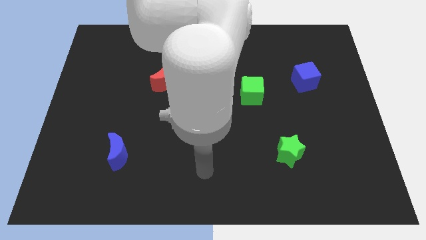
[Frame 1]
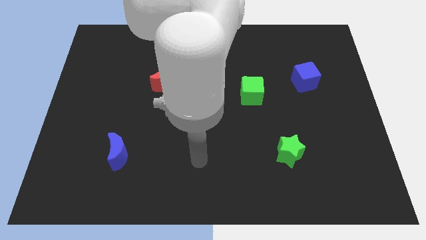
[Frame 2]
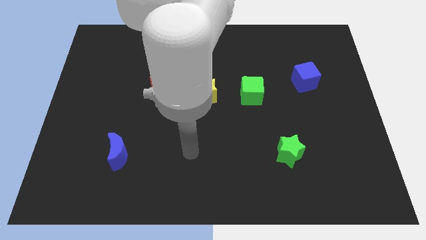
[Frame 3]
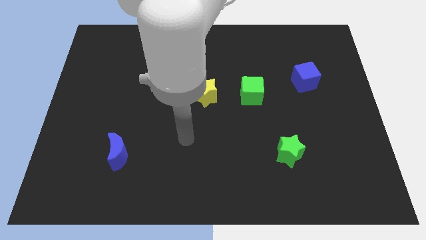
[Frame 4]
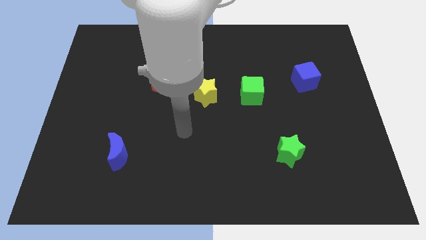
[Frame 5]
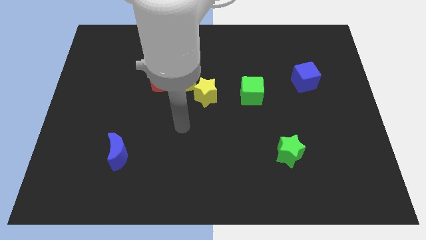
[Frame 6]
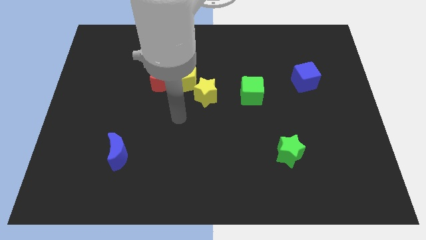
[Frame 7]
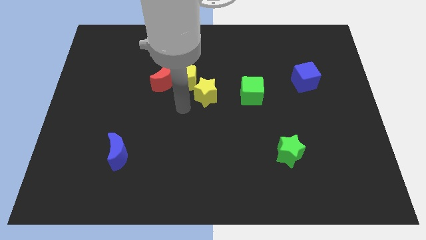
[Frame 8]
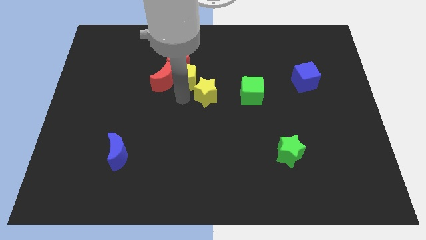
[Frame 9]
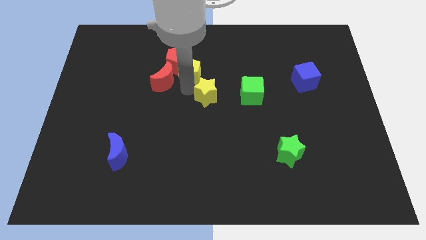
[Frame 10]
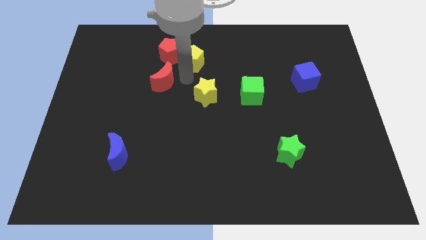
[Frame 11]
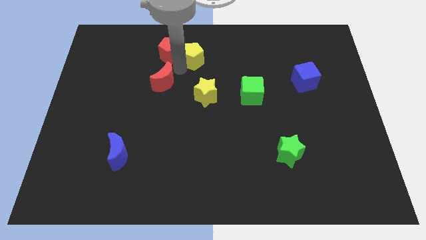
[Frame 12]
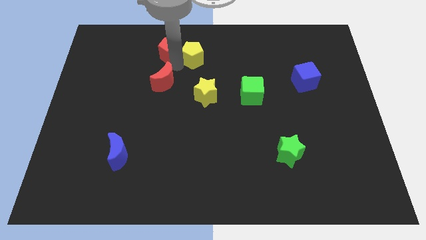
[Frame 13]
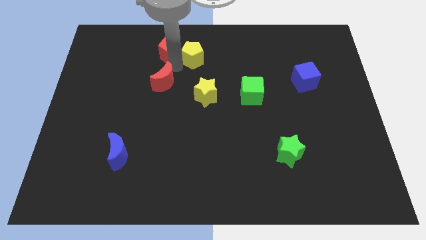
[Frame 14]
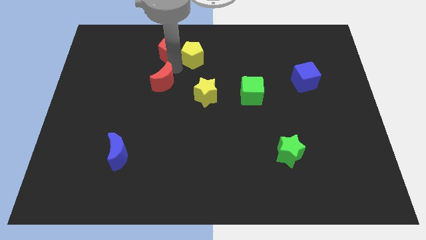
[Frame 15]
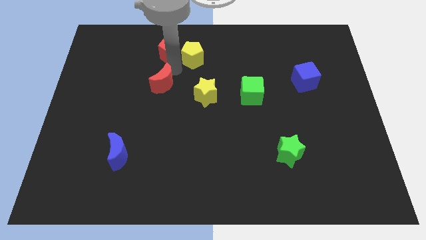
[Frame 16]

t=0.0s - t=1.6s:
pull the red moon apart from the yellow pentagon and red pentagon

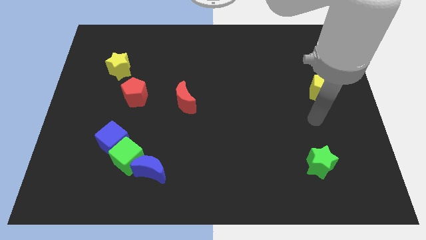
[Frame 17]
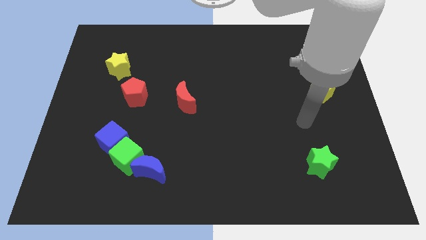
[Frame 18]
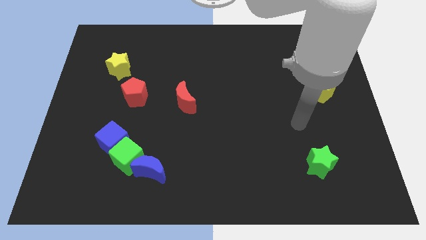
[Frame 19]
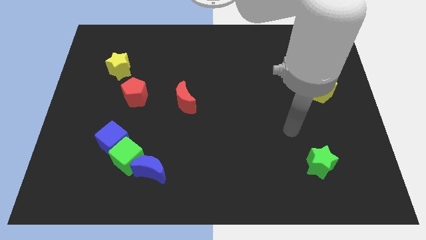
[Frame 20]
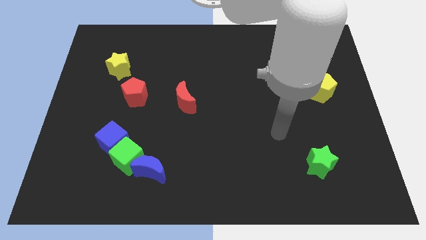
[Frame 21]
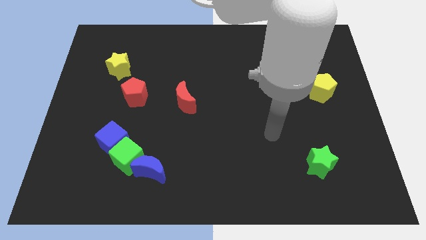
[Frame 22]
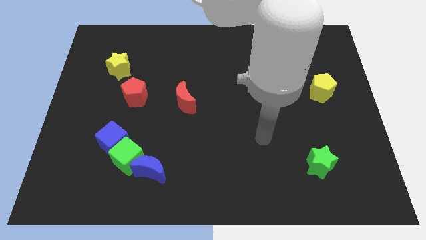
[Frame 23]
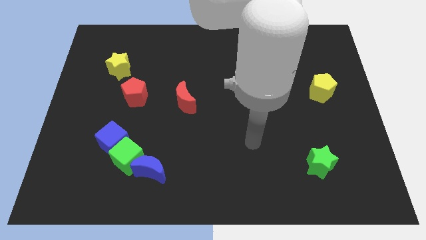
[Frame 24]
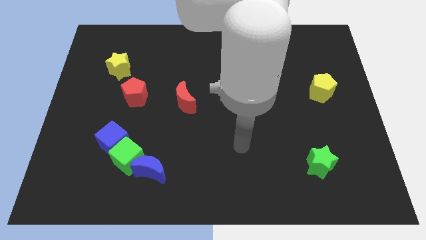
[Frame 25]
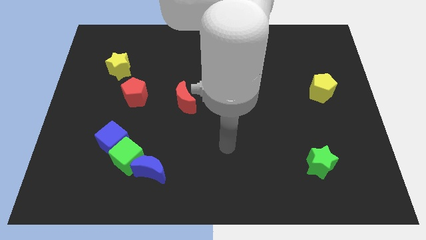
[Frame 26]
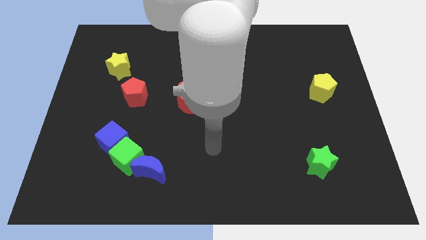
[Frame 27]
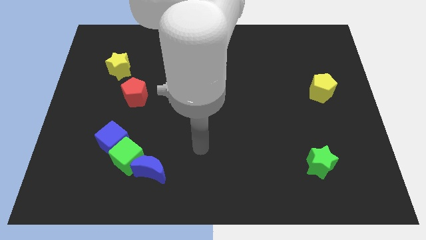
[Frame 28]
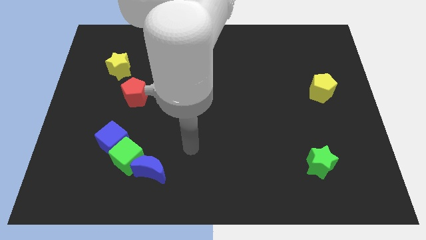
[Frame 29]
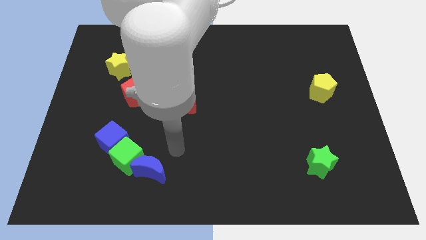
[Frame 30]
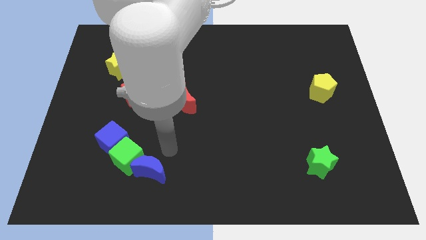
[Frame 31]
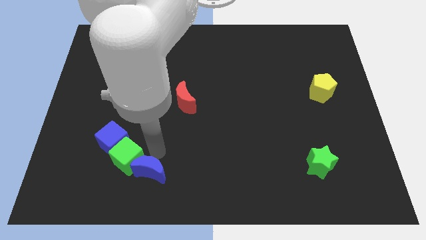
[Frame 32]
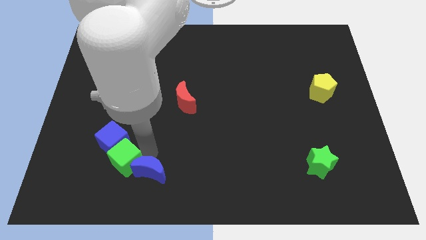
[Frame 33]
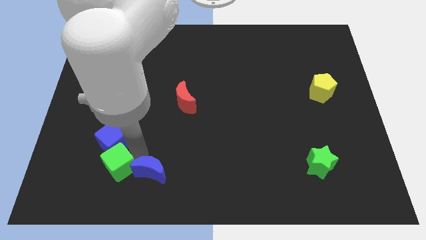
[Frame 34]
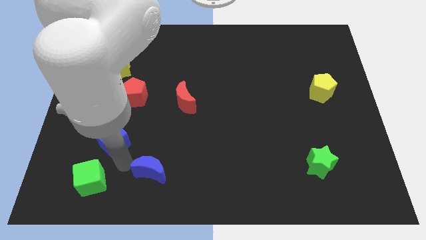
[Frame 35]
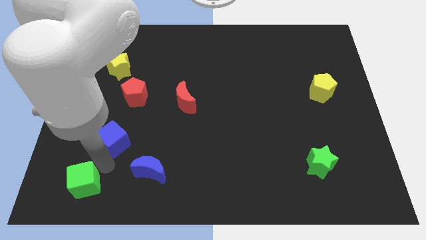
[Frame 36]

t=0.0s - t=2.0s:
separate the blue cube from the green cube

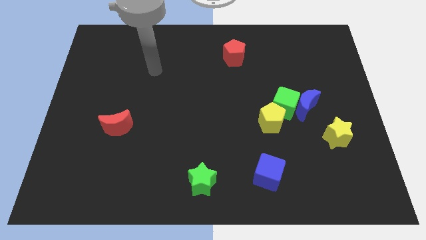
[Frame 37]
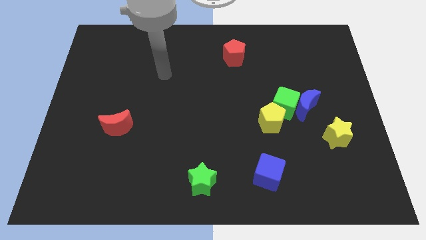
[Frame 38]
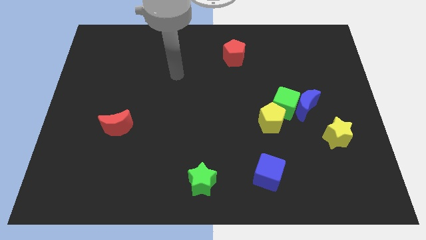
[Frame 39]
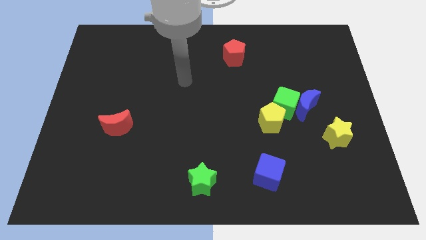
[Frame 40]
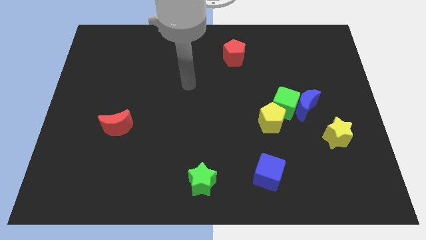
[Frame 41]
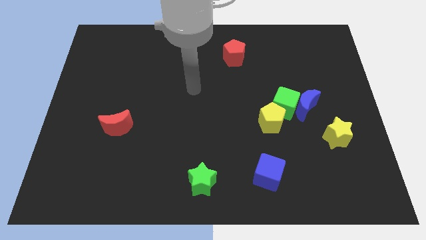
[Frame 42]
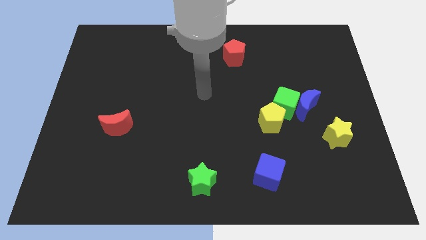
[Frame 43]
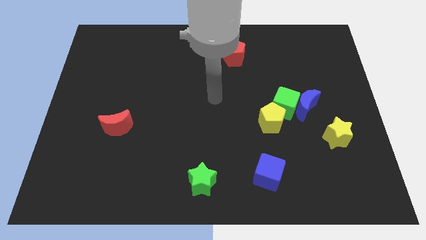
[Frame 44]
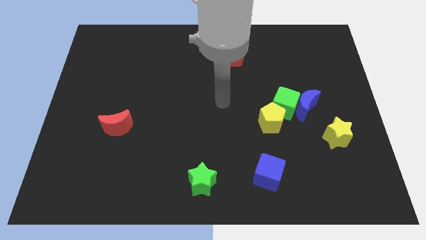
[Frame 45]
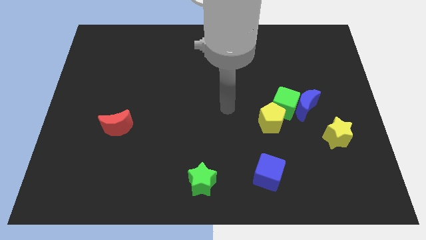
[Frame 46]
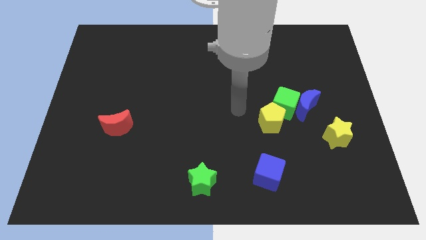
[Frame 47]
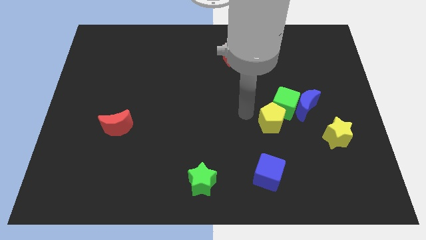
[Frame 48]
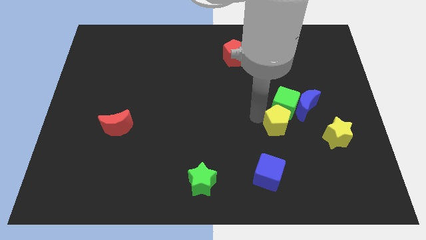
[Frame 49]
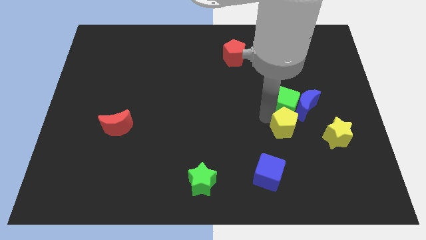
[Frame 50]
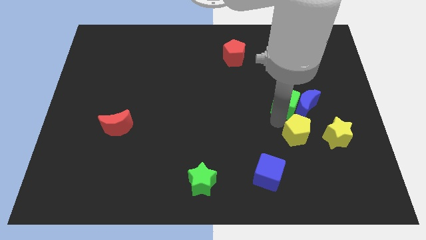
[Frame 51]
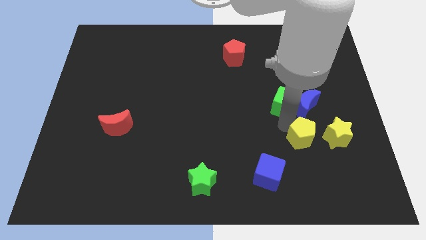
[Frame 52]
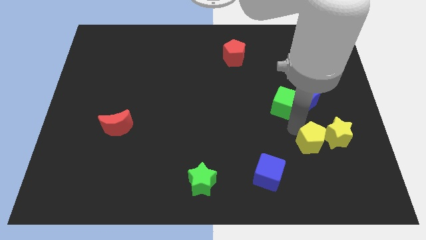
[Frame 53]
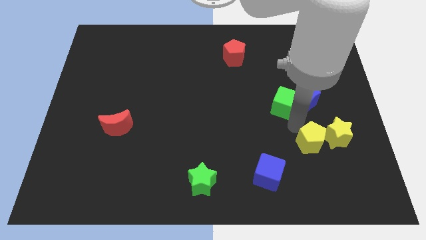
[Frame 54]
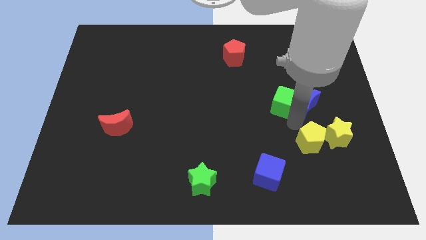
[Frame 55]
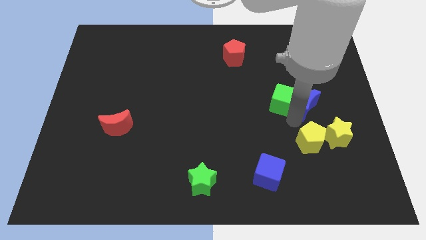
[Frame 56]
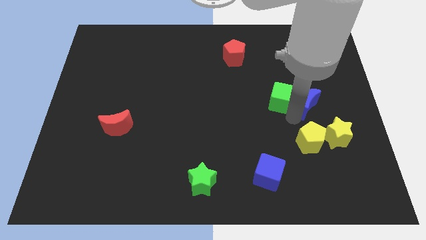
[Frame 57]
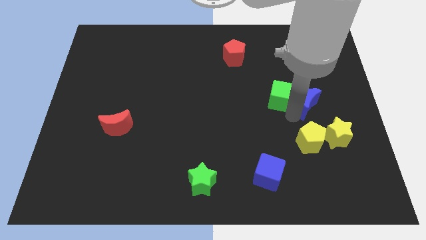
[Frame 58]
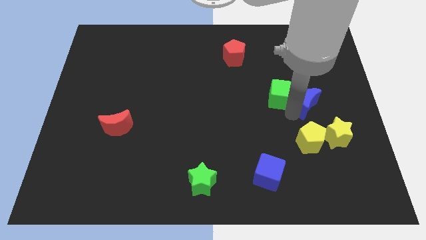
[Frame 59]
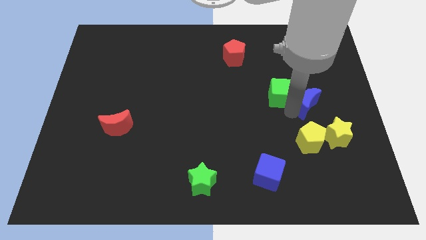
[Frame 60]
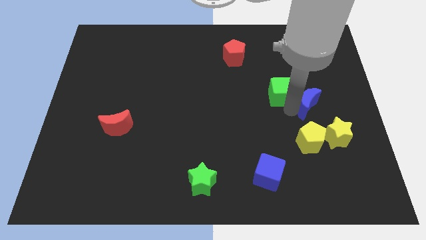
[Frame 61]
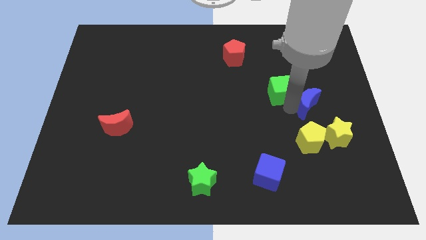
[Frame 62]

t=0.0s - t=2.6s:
pull the green cube apart from the blue moon and yellow pentagon

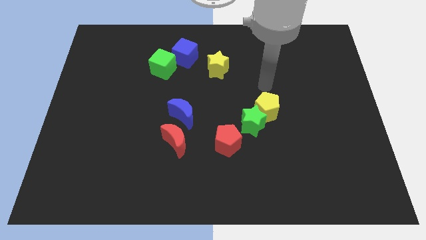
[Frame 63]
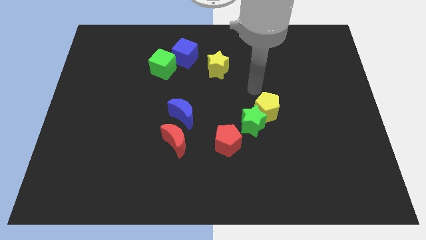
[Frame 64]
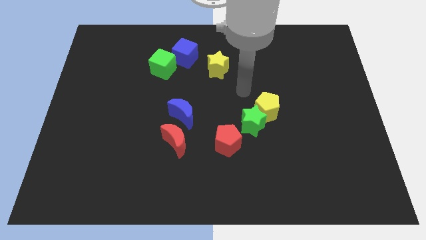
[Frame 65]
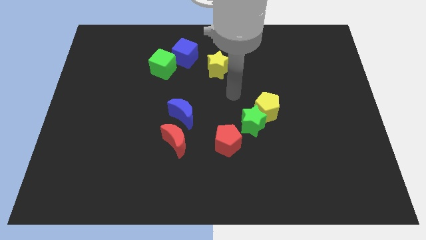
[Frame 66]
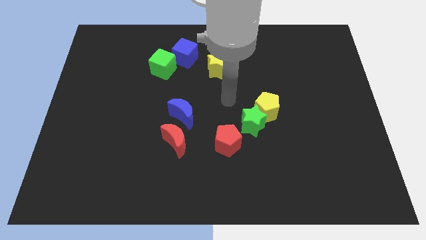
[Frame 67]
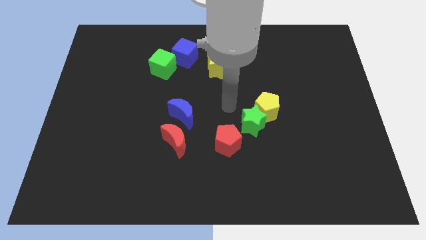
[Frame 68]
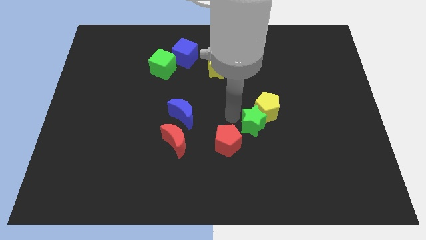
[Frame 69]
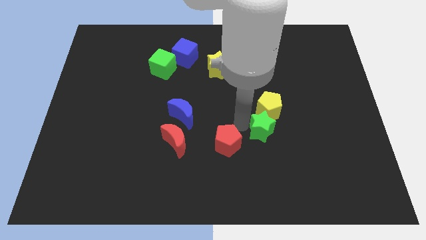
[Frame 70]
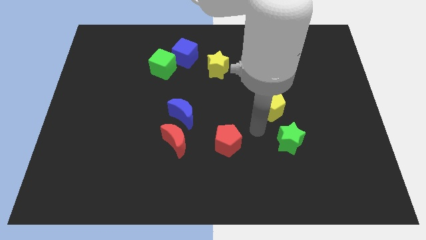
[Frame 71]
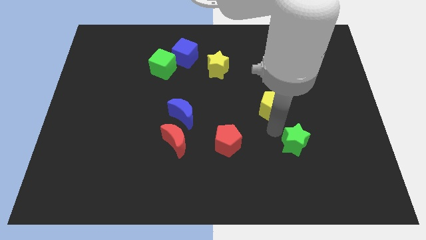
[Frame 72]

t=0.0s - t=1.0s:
pull the yellow pentagon apart from the green star

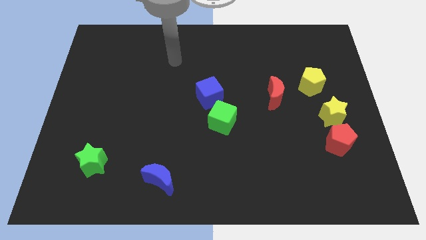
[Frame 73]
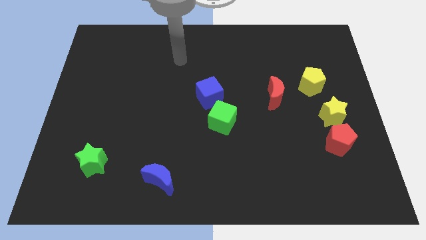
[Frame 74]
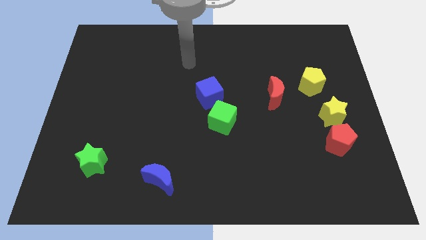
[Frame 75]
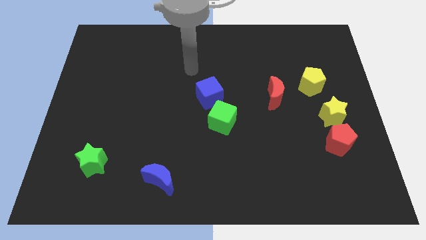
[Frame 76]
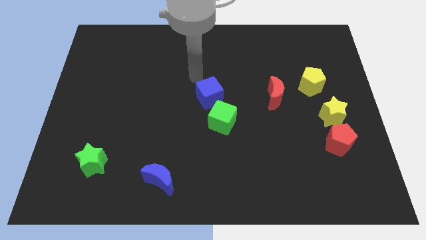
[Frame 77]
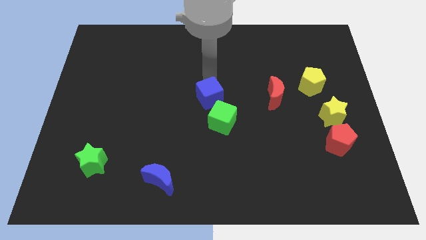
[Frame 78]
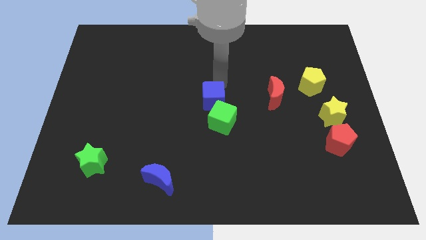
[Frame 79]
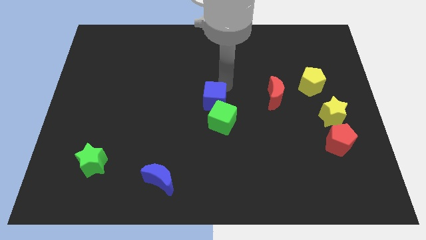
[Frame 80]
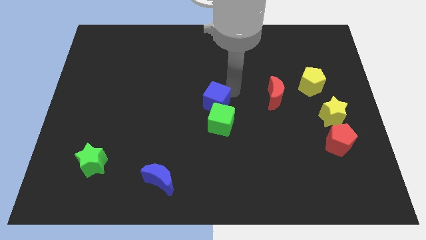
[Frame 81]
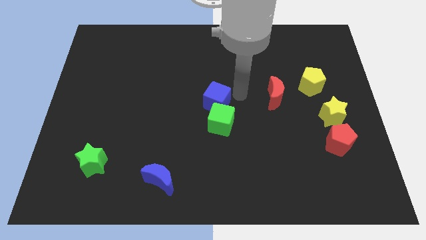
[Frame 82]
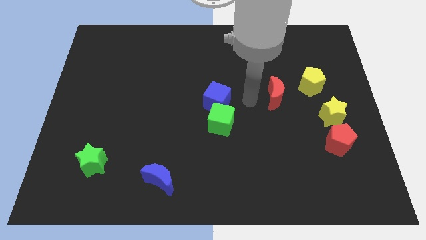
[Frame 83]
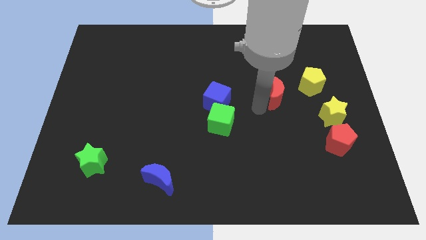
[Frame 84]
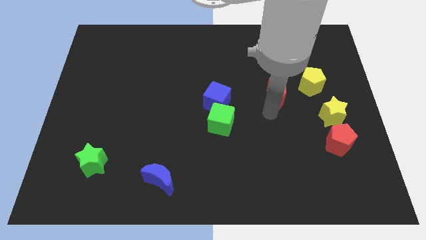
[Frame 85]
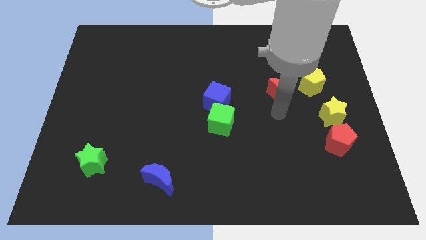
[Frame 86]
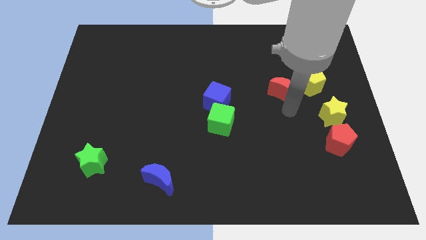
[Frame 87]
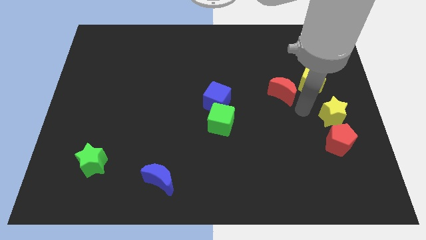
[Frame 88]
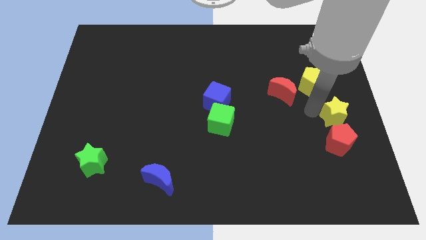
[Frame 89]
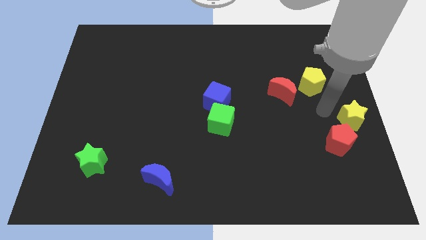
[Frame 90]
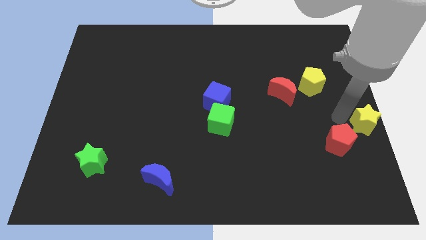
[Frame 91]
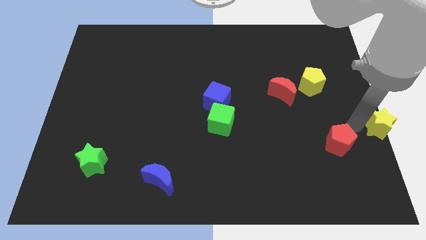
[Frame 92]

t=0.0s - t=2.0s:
move the red pentagon away from the yellow star

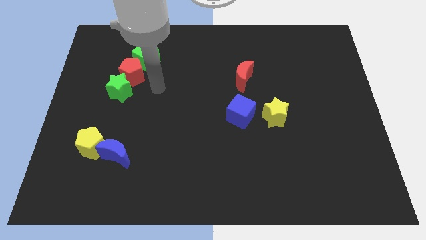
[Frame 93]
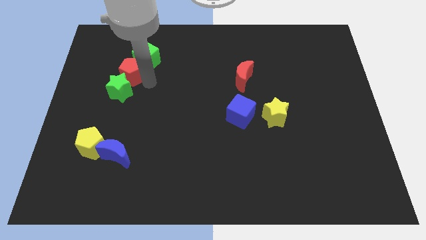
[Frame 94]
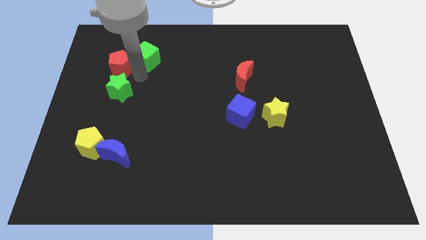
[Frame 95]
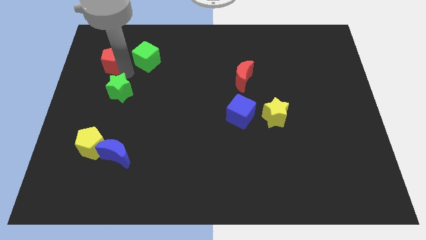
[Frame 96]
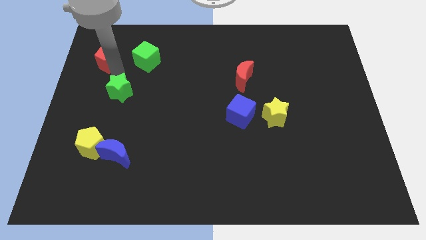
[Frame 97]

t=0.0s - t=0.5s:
move the green star away from the red pentagon
